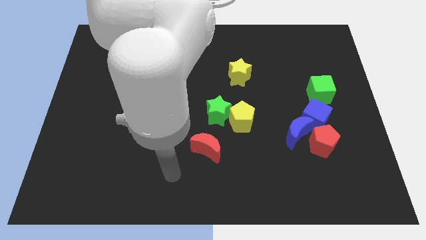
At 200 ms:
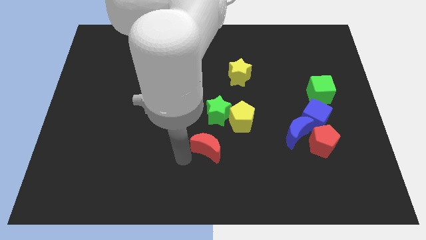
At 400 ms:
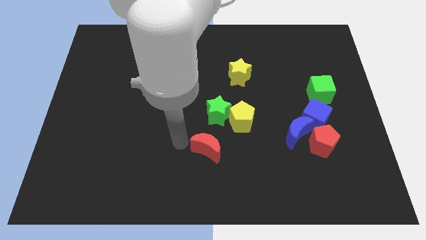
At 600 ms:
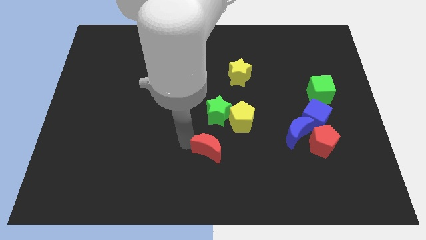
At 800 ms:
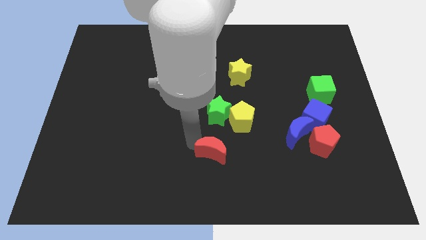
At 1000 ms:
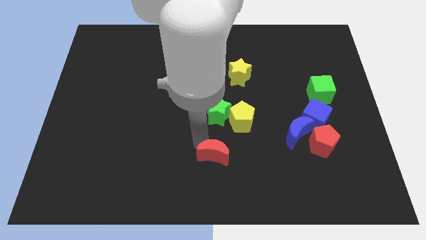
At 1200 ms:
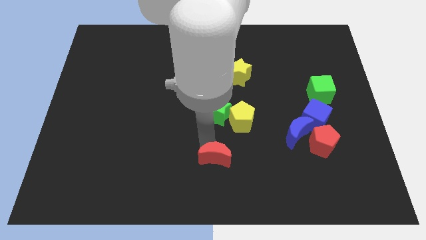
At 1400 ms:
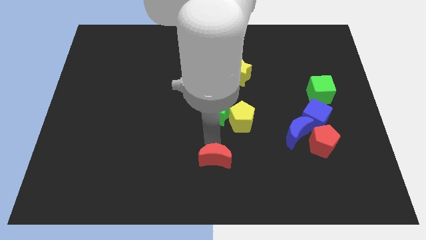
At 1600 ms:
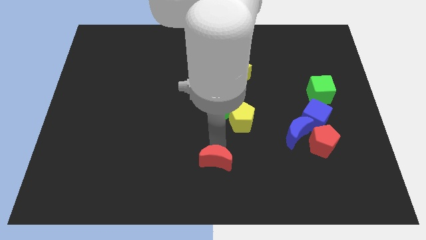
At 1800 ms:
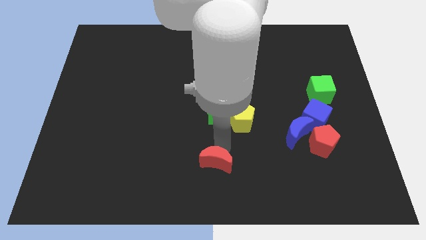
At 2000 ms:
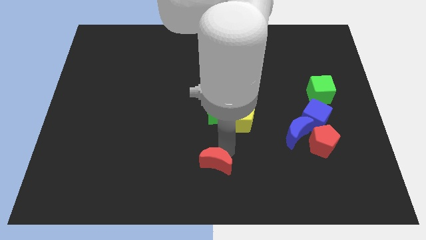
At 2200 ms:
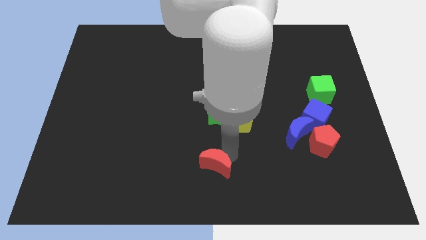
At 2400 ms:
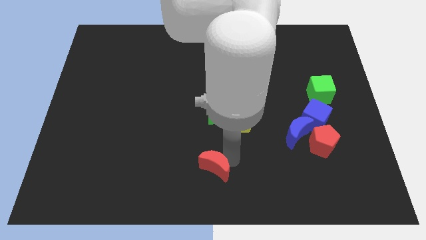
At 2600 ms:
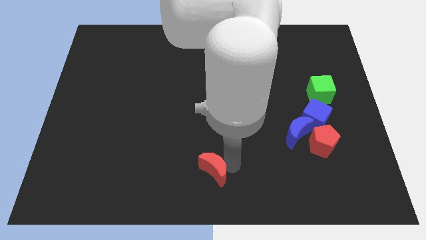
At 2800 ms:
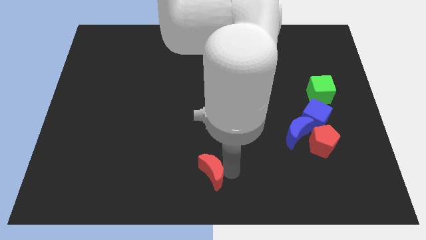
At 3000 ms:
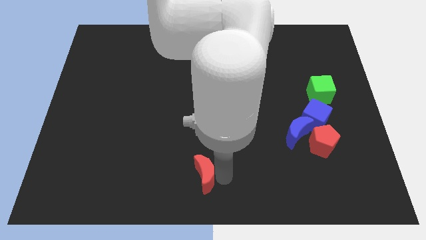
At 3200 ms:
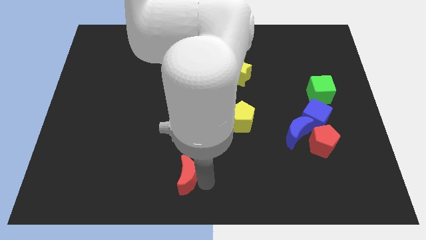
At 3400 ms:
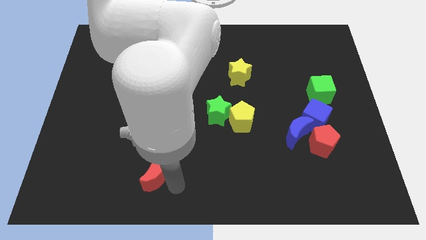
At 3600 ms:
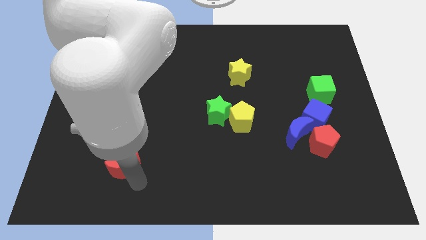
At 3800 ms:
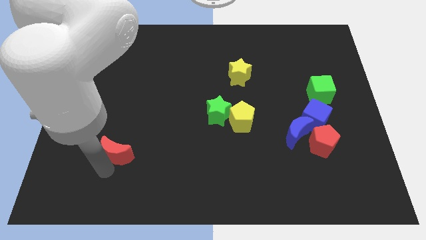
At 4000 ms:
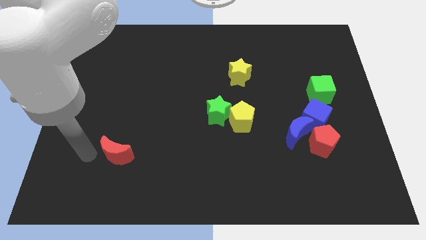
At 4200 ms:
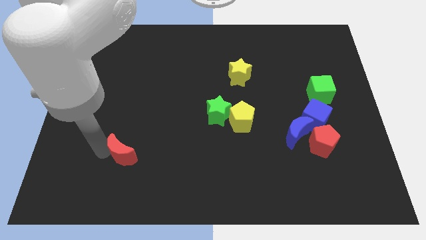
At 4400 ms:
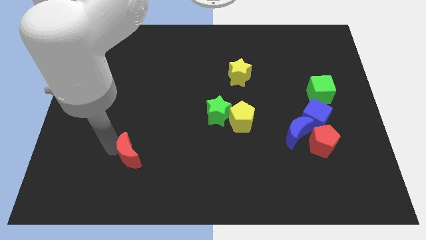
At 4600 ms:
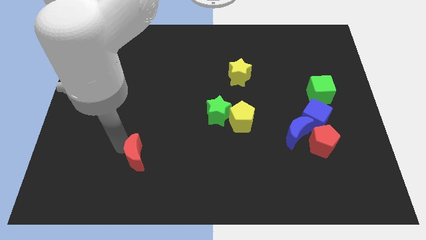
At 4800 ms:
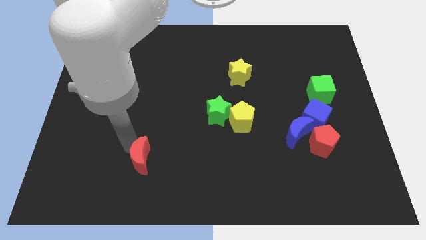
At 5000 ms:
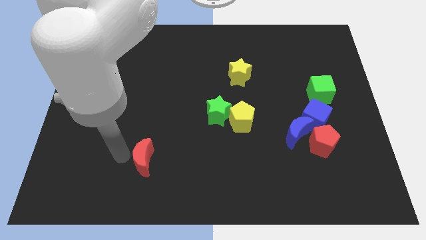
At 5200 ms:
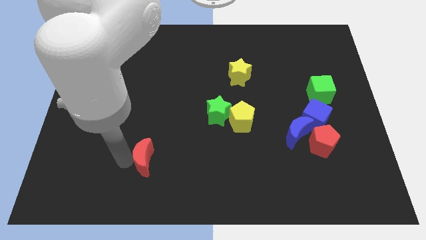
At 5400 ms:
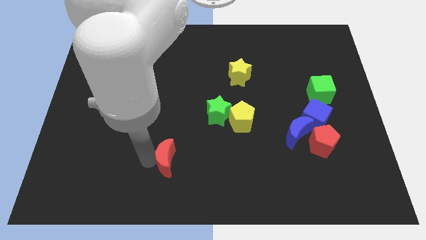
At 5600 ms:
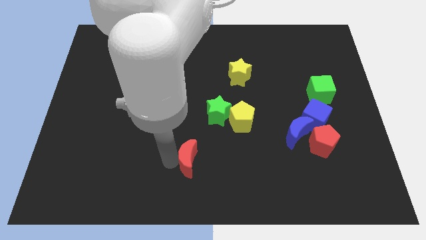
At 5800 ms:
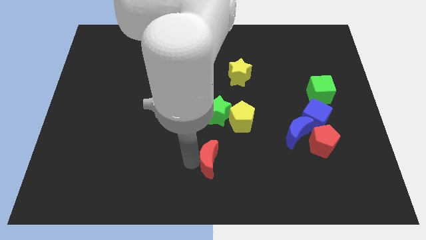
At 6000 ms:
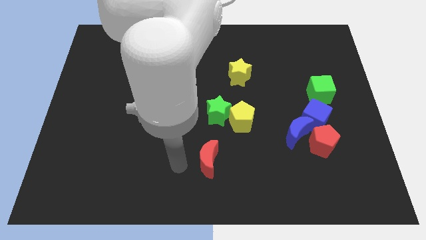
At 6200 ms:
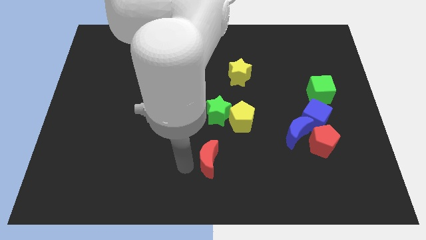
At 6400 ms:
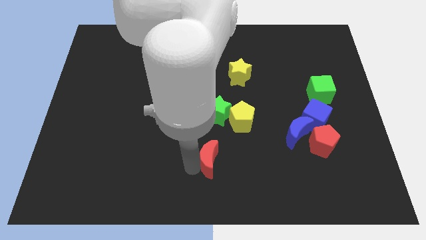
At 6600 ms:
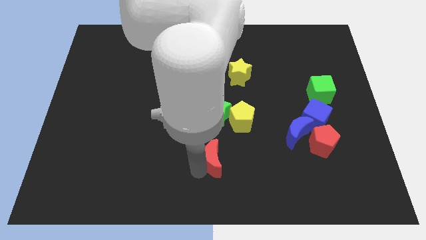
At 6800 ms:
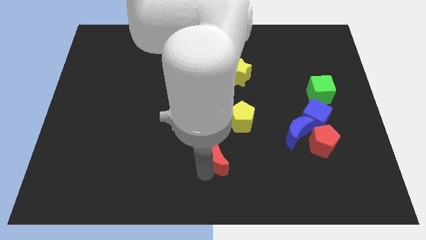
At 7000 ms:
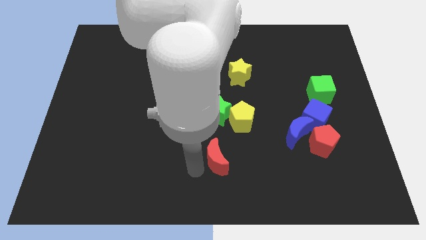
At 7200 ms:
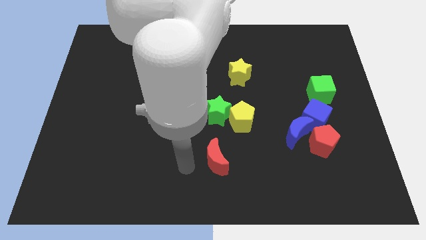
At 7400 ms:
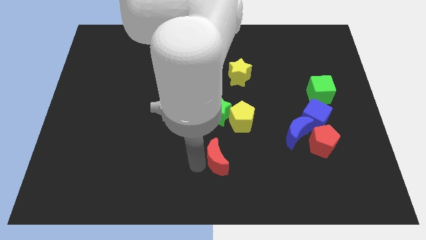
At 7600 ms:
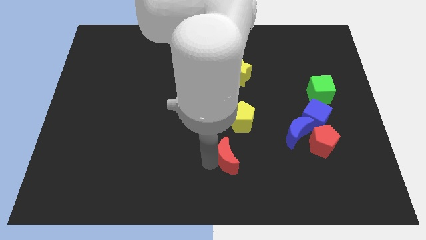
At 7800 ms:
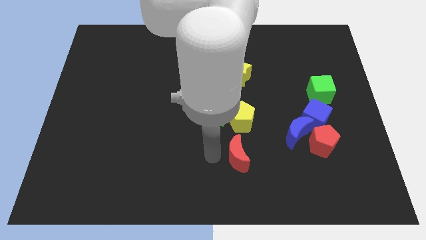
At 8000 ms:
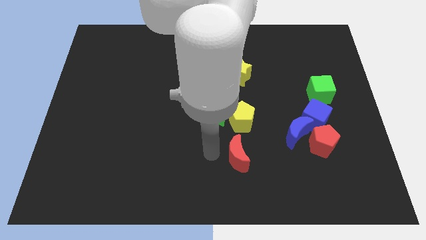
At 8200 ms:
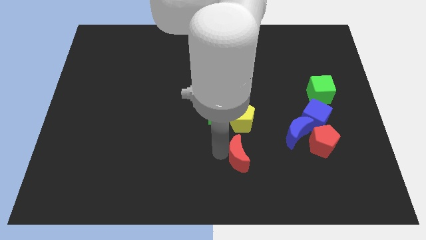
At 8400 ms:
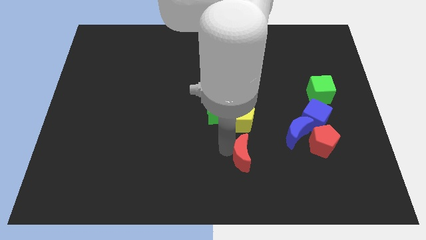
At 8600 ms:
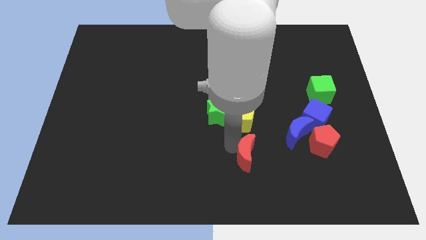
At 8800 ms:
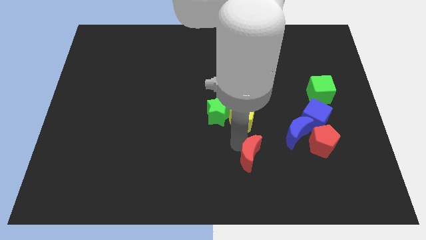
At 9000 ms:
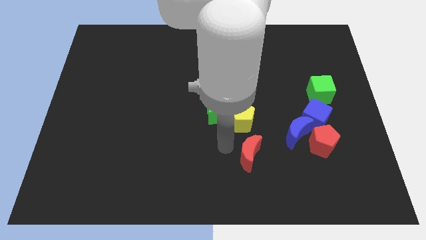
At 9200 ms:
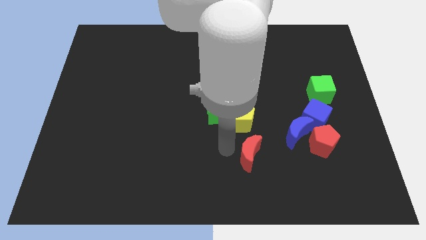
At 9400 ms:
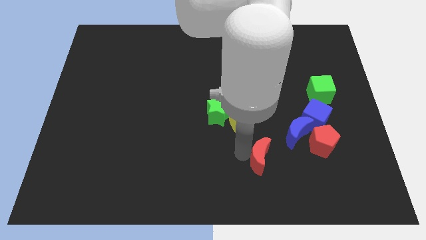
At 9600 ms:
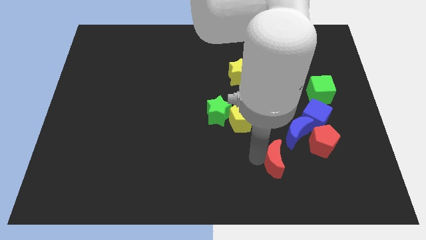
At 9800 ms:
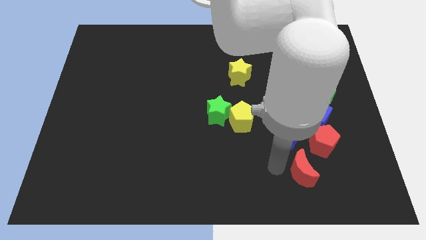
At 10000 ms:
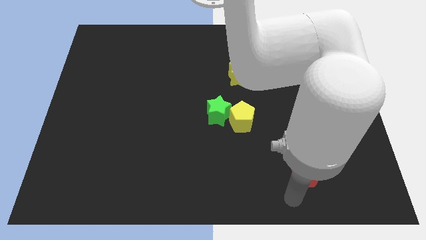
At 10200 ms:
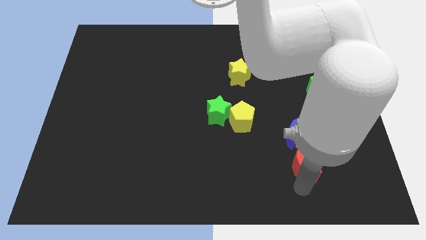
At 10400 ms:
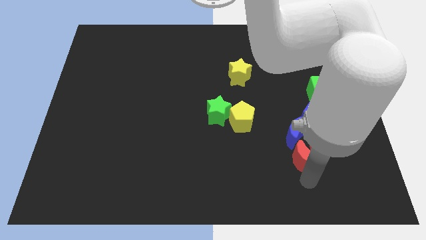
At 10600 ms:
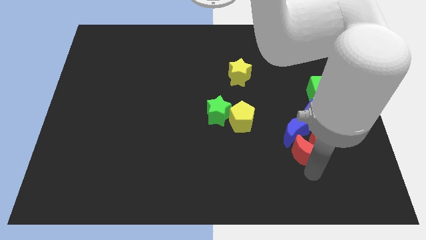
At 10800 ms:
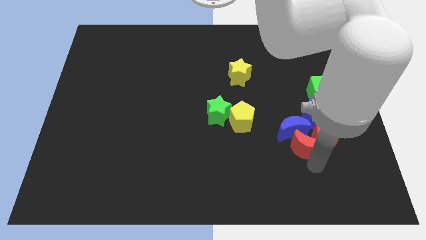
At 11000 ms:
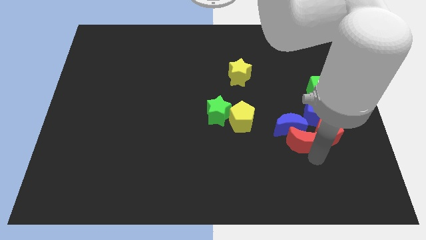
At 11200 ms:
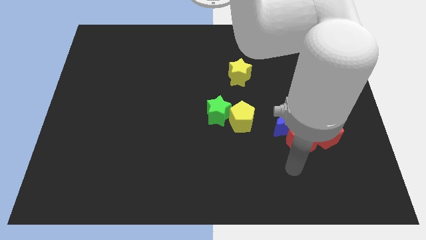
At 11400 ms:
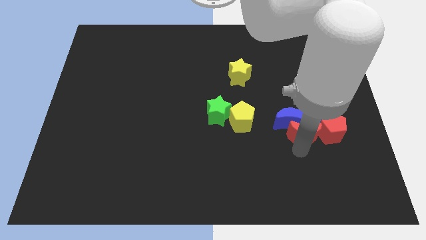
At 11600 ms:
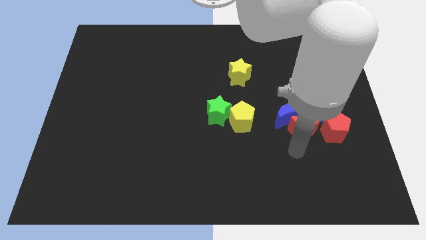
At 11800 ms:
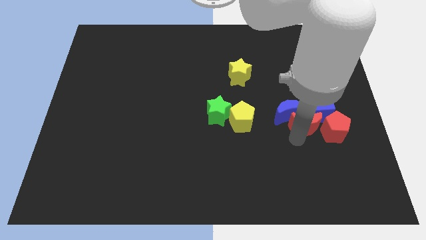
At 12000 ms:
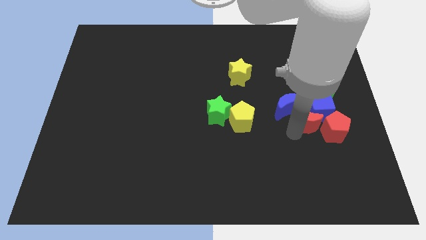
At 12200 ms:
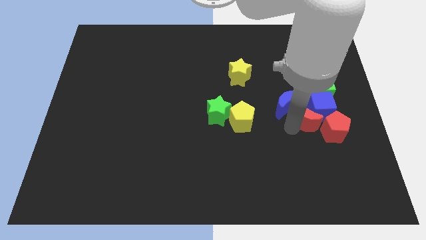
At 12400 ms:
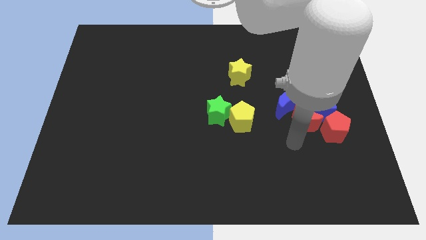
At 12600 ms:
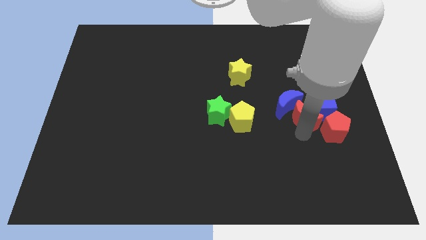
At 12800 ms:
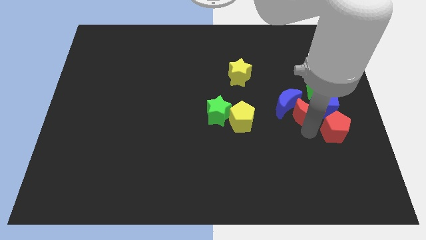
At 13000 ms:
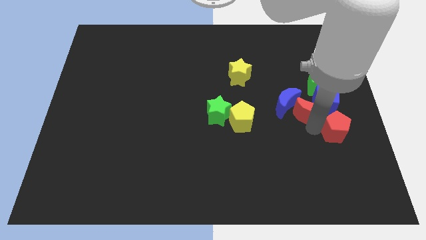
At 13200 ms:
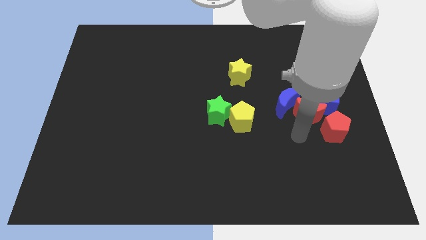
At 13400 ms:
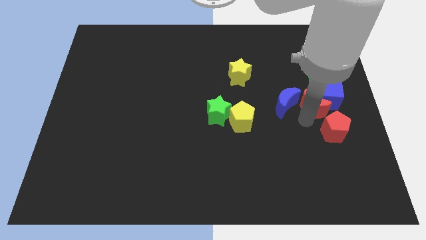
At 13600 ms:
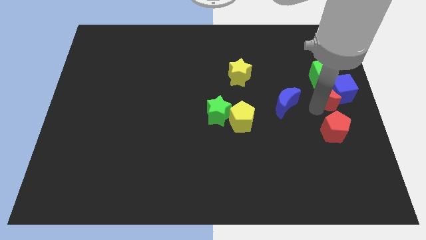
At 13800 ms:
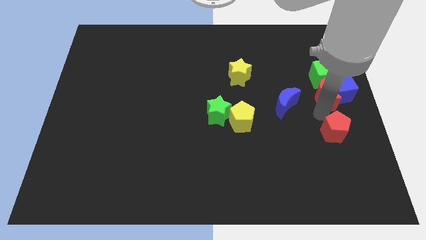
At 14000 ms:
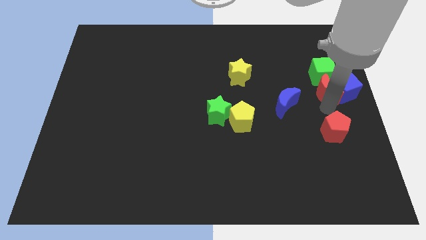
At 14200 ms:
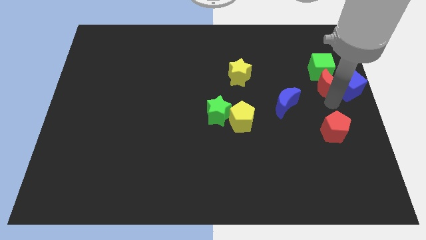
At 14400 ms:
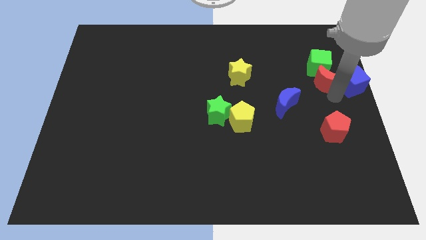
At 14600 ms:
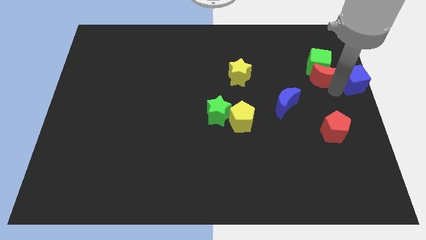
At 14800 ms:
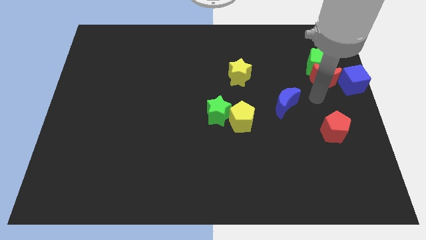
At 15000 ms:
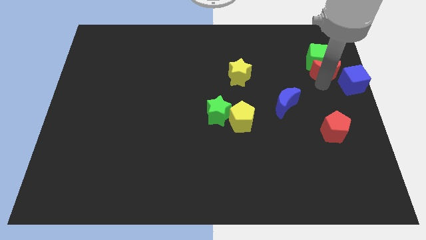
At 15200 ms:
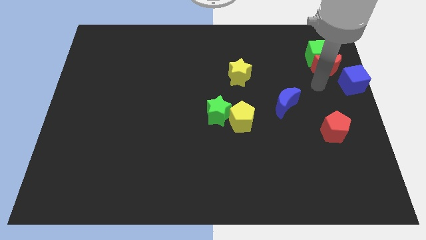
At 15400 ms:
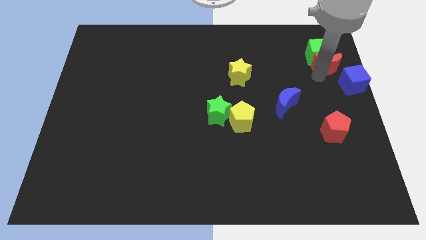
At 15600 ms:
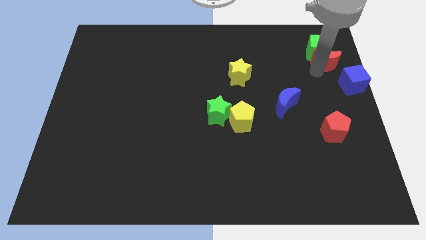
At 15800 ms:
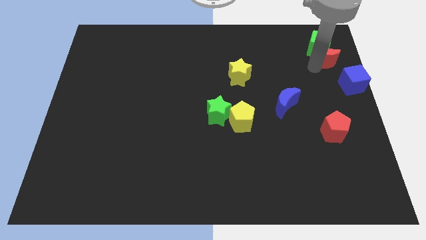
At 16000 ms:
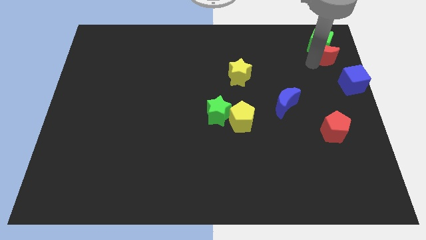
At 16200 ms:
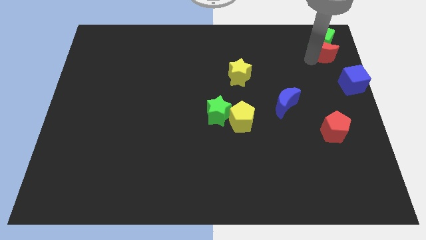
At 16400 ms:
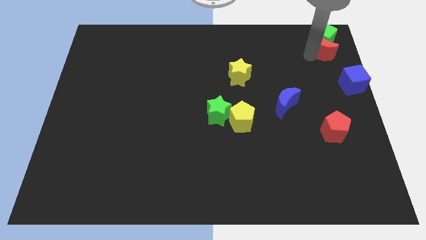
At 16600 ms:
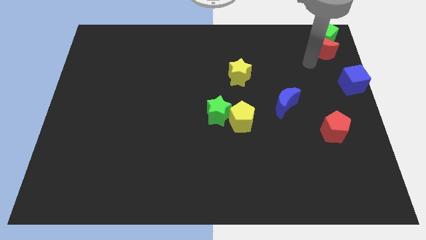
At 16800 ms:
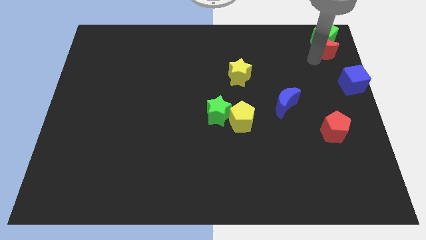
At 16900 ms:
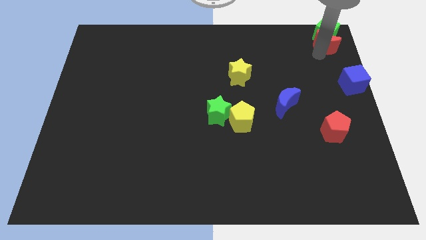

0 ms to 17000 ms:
push the red moon to the top right corner
